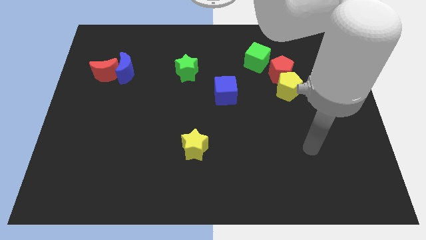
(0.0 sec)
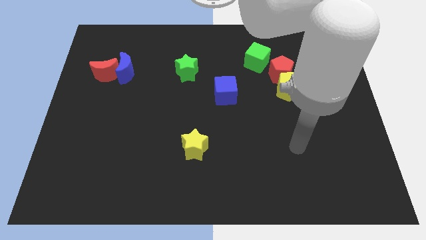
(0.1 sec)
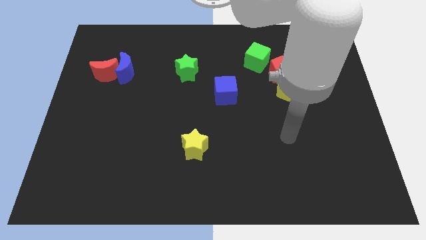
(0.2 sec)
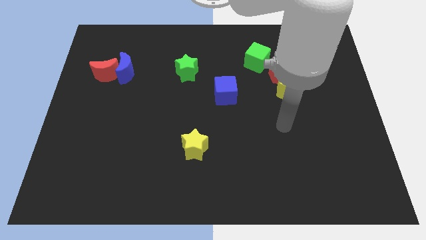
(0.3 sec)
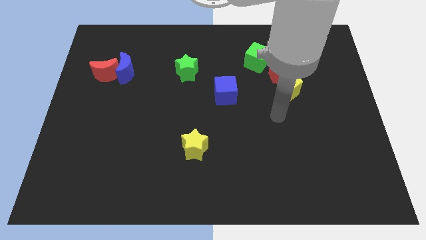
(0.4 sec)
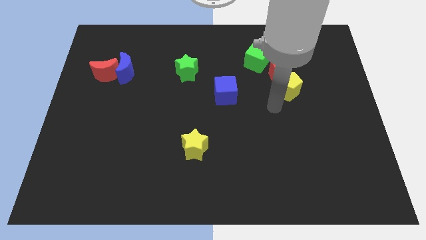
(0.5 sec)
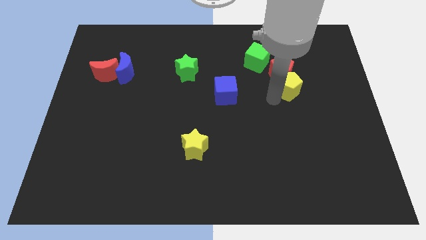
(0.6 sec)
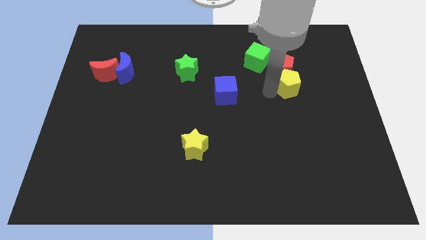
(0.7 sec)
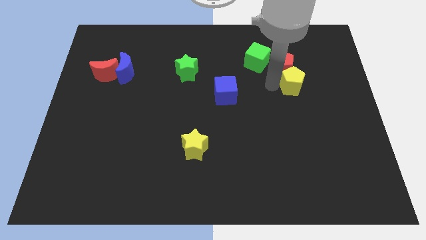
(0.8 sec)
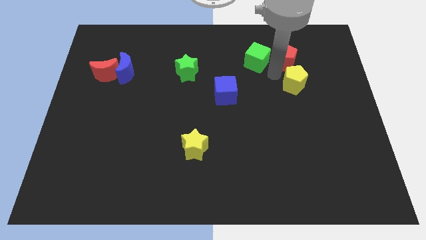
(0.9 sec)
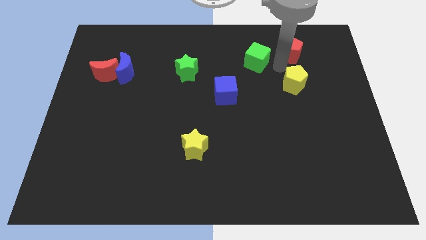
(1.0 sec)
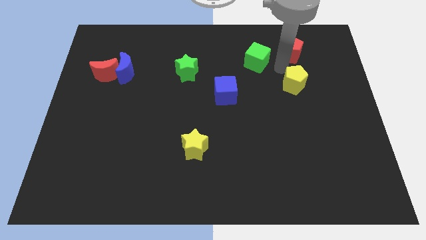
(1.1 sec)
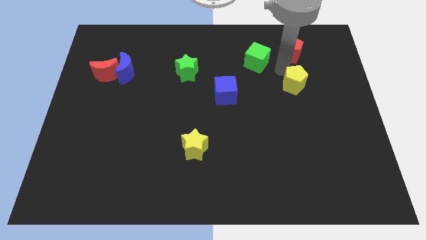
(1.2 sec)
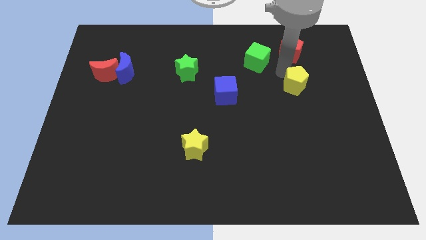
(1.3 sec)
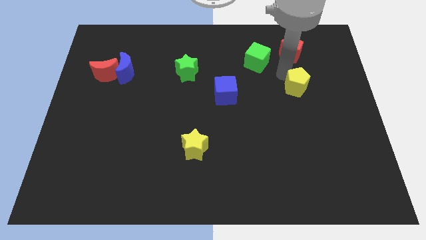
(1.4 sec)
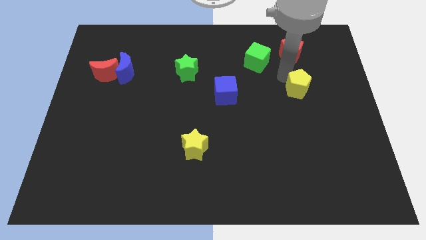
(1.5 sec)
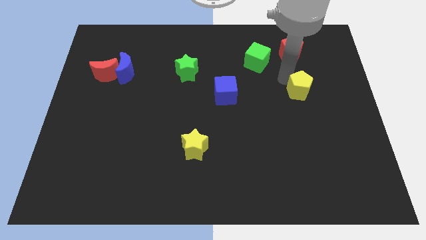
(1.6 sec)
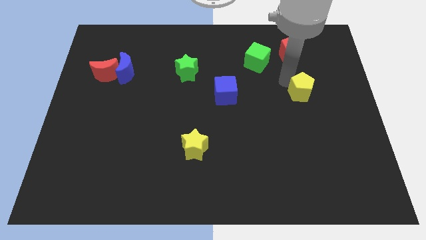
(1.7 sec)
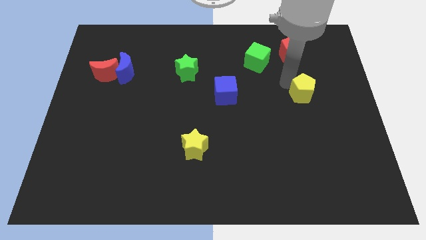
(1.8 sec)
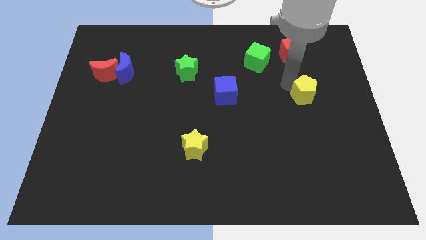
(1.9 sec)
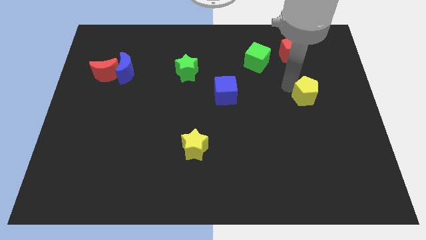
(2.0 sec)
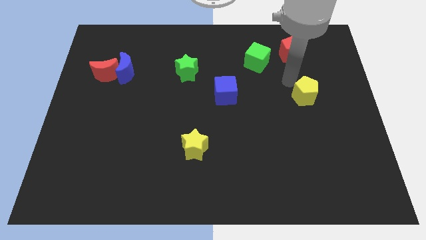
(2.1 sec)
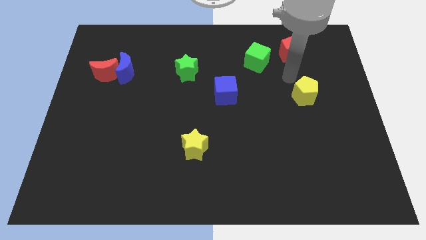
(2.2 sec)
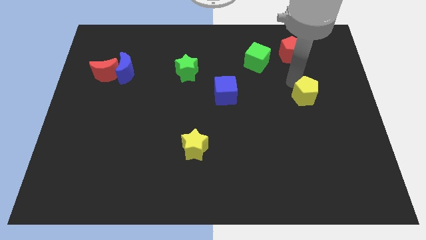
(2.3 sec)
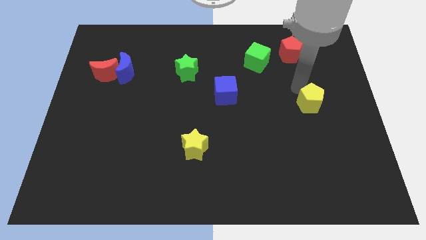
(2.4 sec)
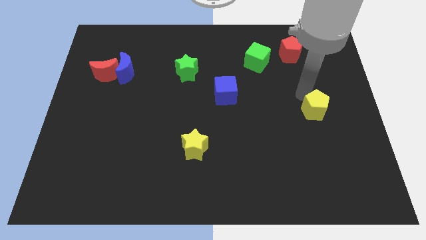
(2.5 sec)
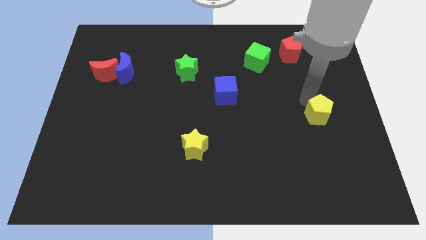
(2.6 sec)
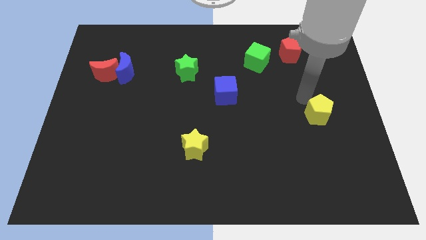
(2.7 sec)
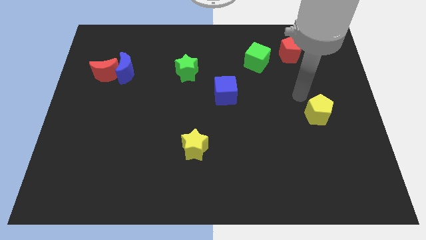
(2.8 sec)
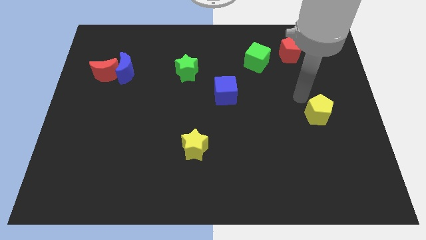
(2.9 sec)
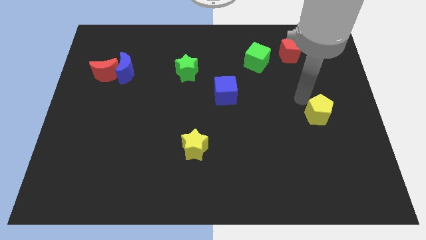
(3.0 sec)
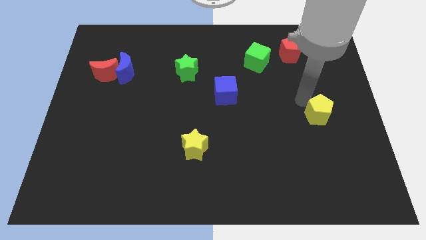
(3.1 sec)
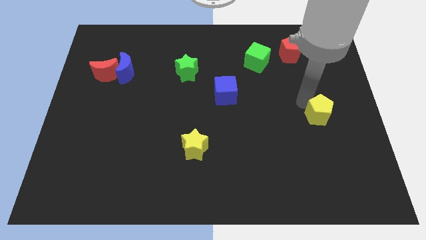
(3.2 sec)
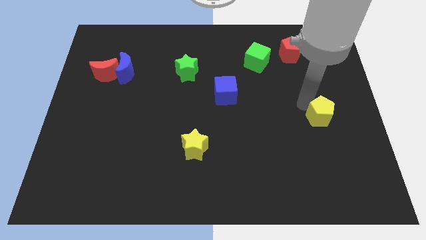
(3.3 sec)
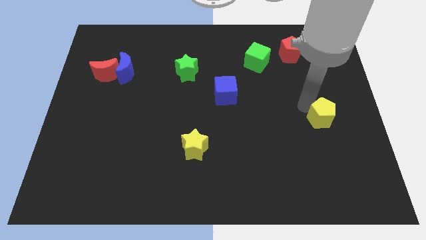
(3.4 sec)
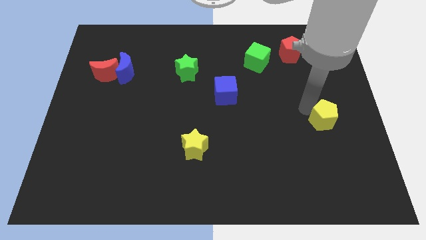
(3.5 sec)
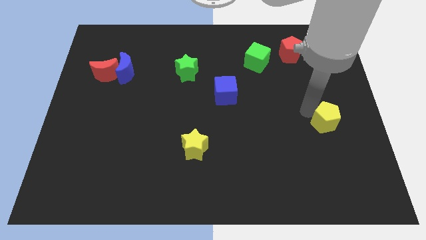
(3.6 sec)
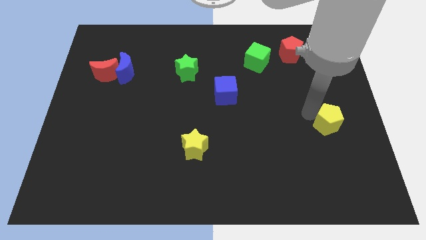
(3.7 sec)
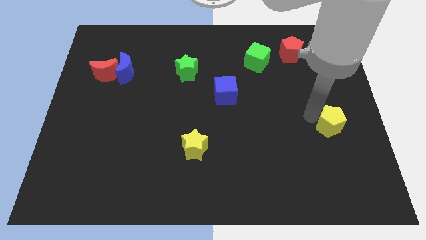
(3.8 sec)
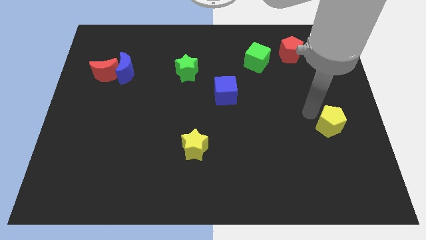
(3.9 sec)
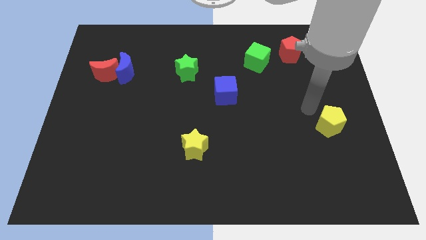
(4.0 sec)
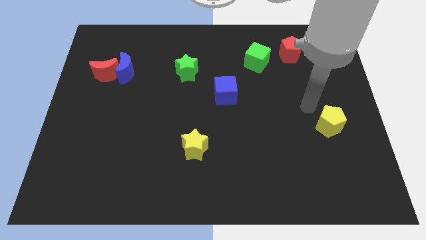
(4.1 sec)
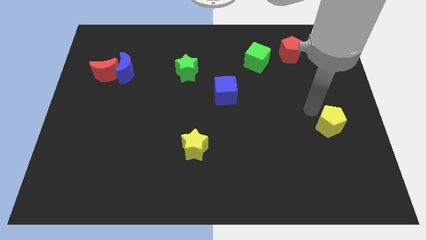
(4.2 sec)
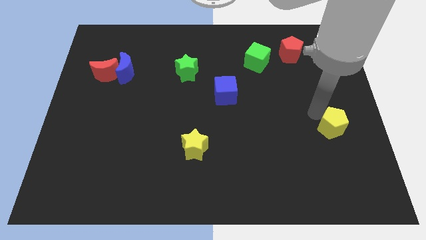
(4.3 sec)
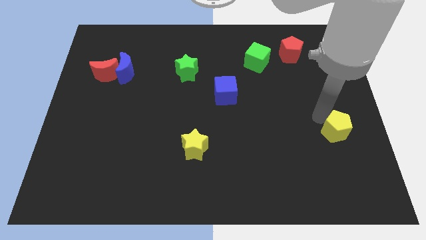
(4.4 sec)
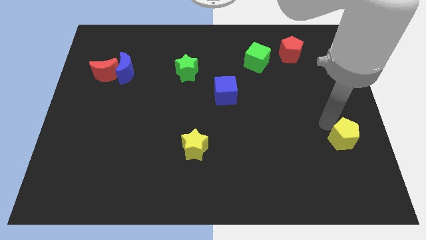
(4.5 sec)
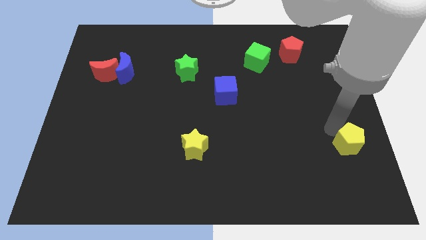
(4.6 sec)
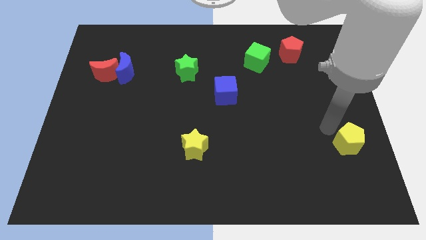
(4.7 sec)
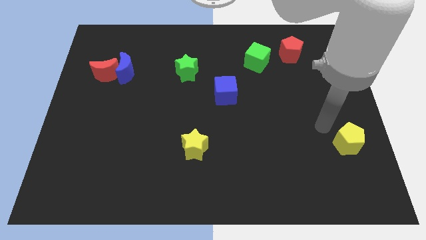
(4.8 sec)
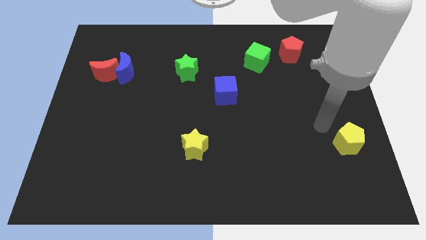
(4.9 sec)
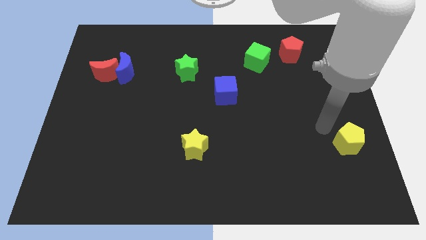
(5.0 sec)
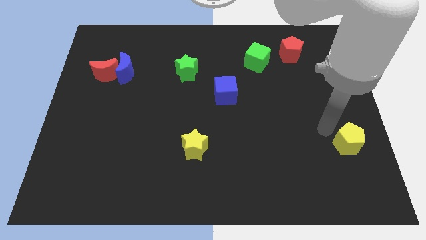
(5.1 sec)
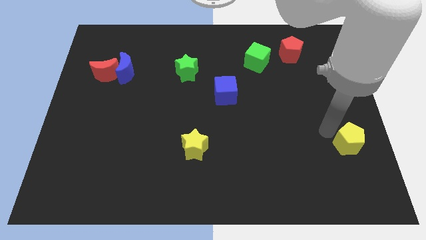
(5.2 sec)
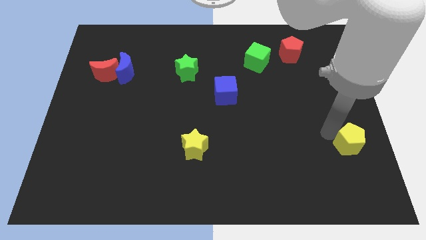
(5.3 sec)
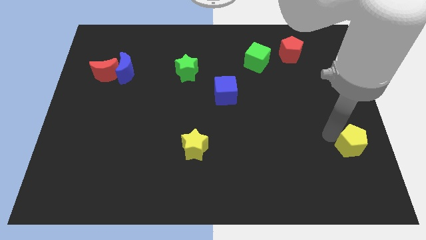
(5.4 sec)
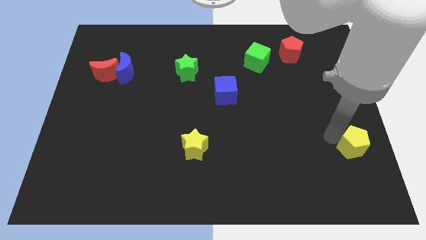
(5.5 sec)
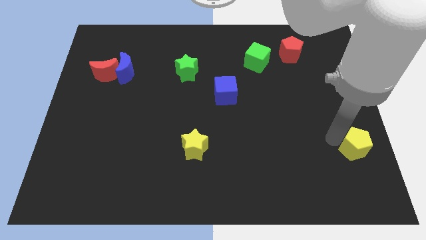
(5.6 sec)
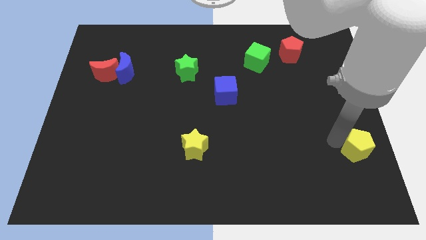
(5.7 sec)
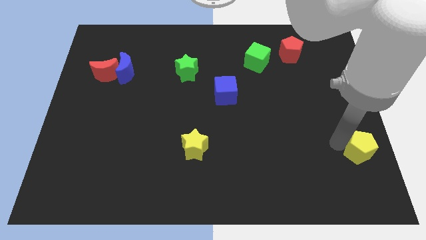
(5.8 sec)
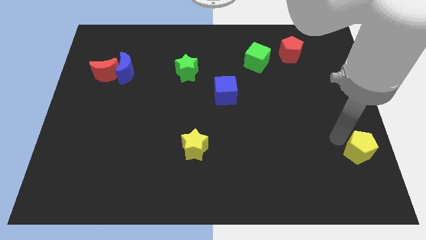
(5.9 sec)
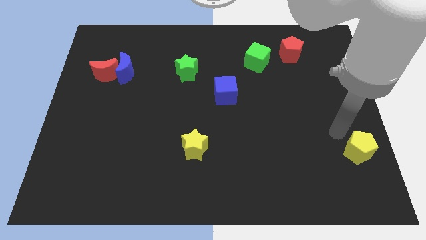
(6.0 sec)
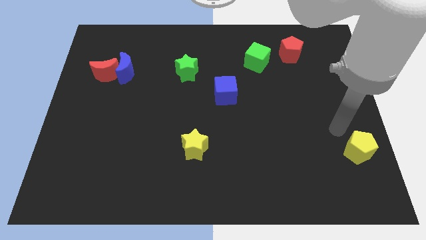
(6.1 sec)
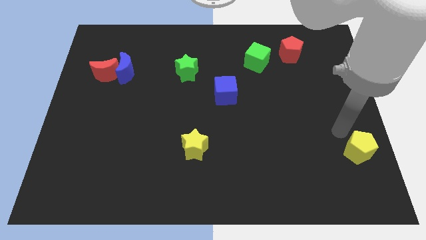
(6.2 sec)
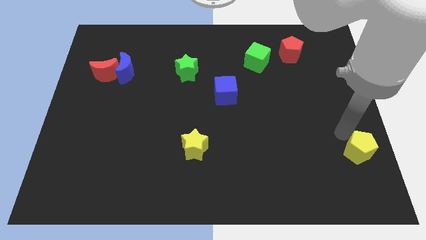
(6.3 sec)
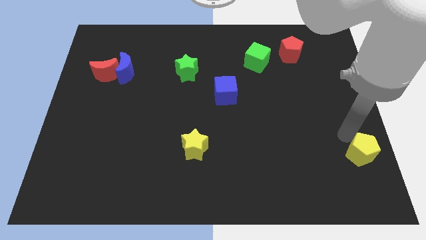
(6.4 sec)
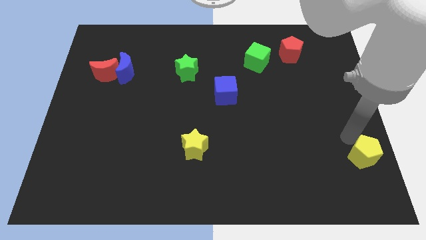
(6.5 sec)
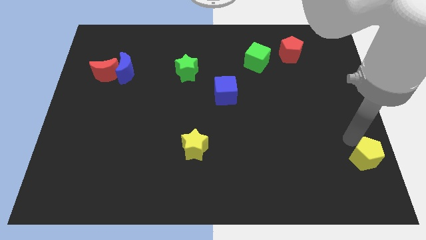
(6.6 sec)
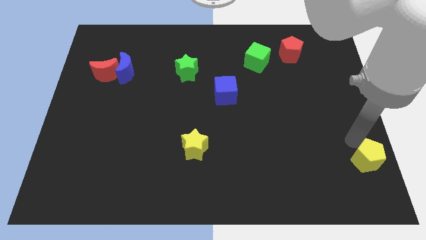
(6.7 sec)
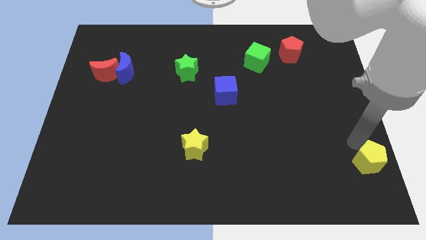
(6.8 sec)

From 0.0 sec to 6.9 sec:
move the yellow pentagon to the bottom right corner
